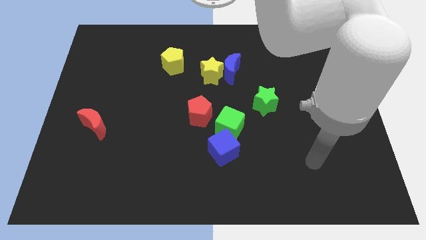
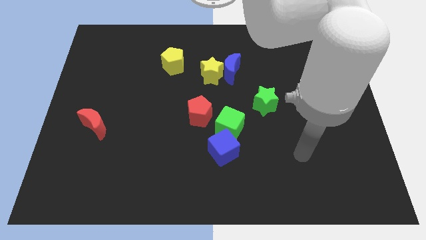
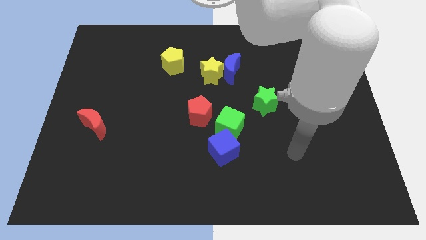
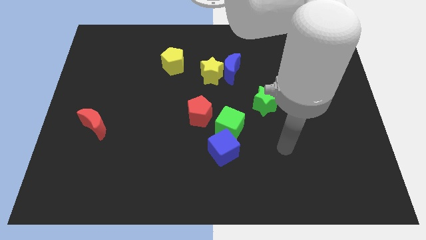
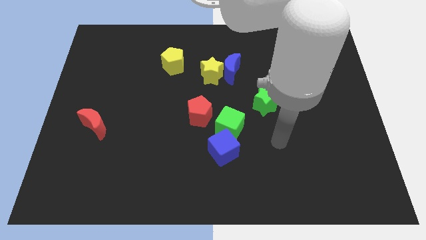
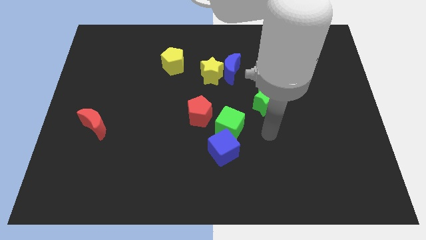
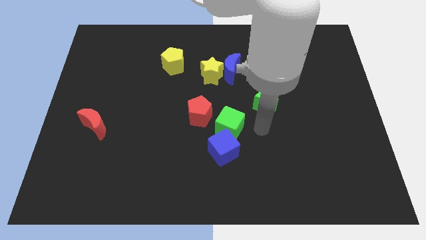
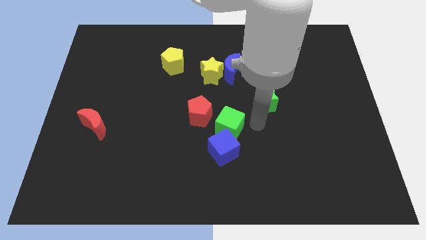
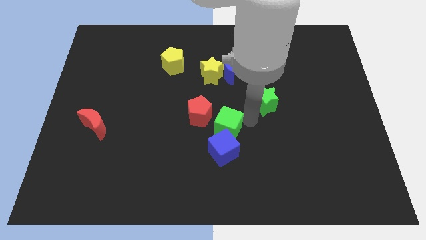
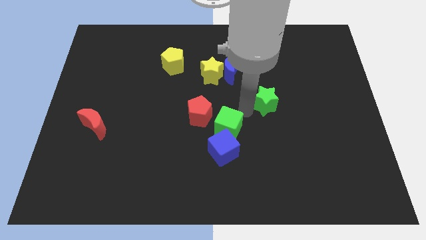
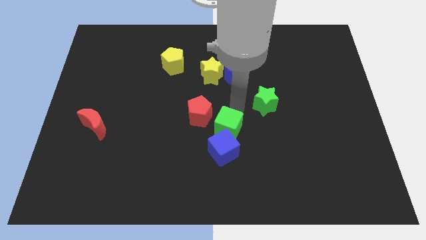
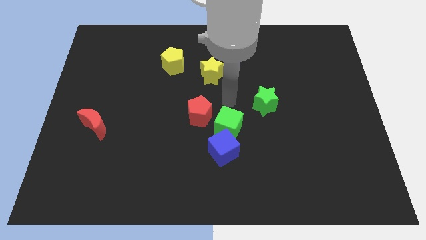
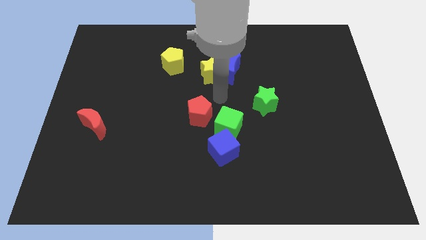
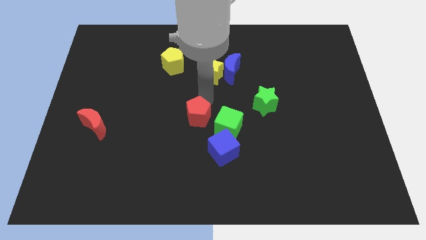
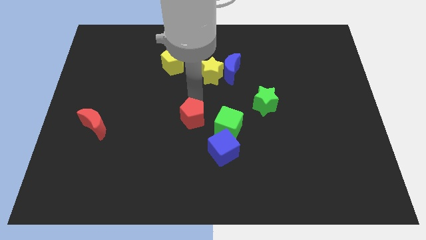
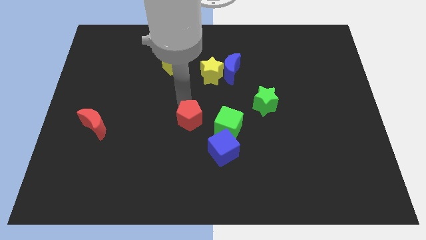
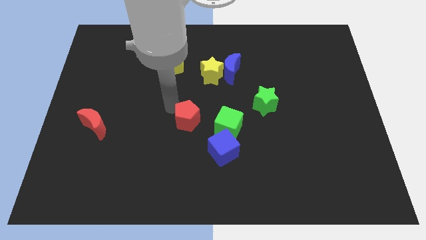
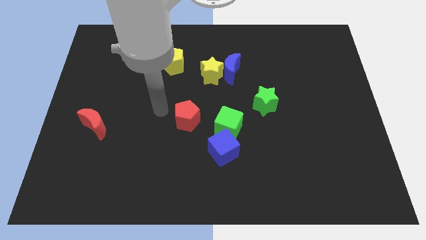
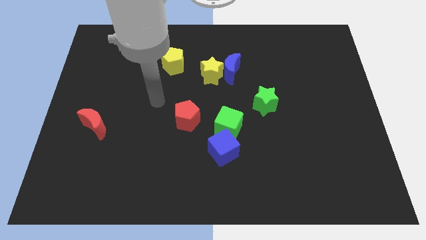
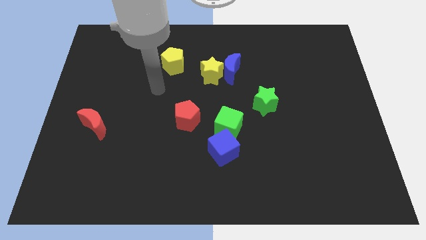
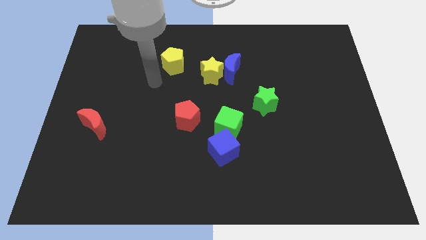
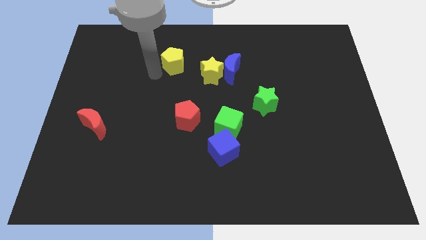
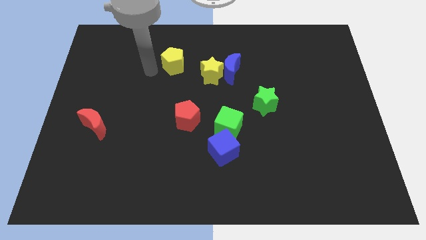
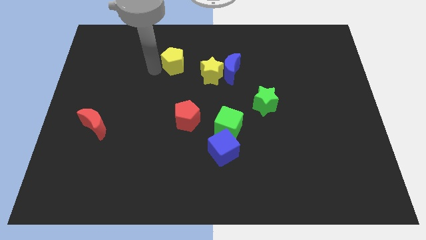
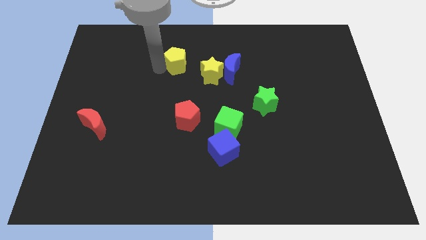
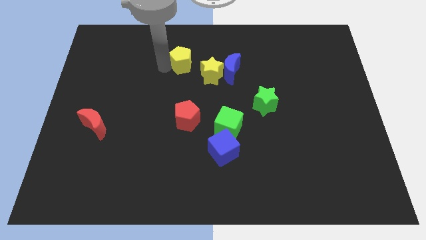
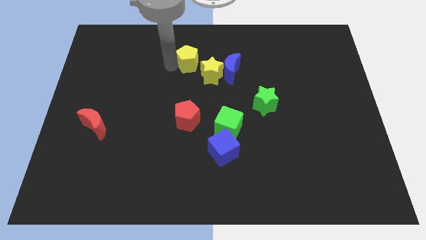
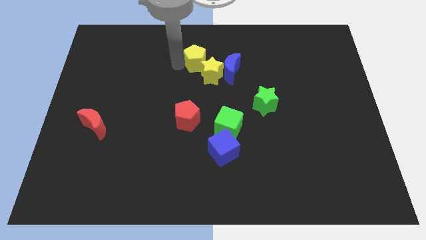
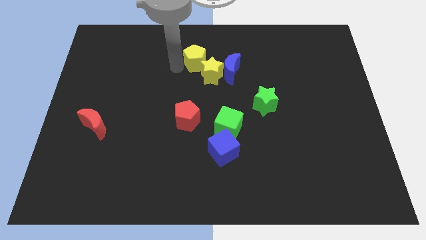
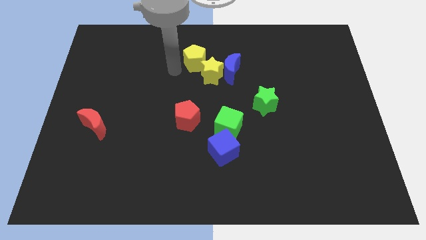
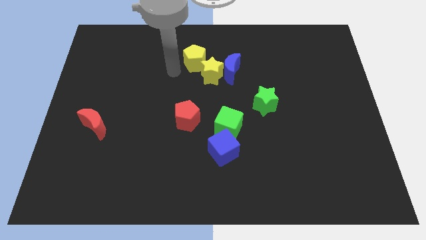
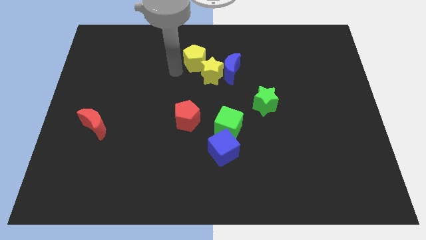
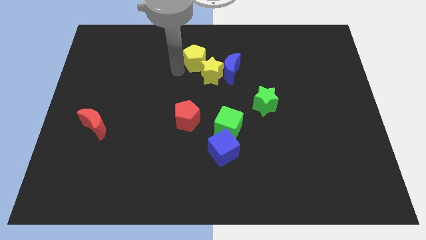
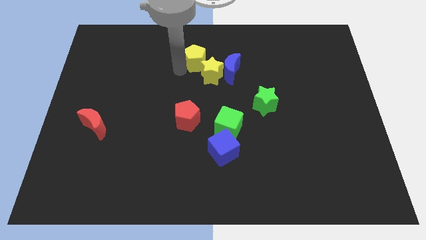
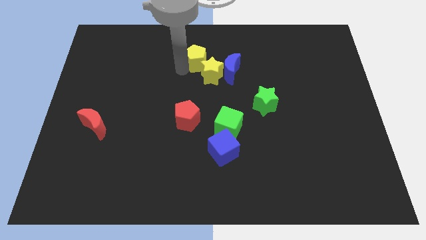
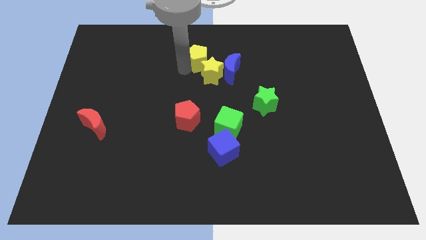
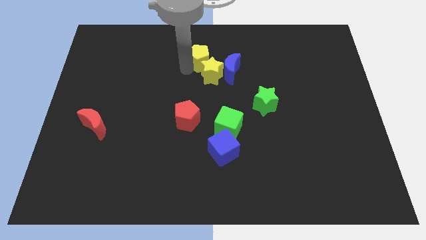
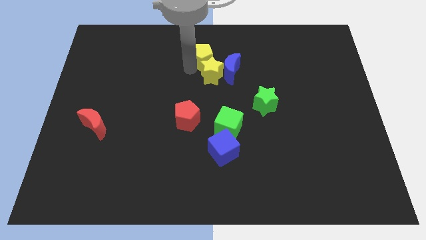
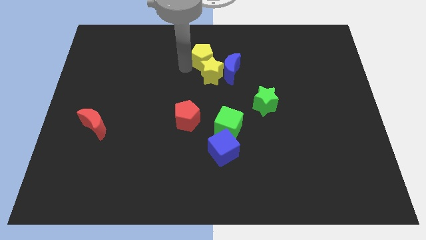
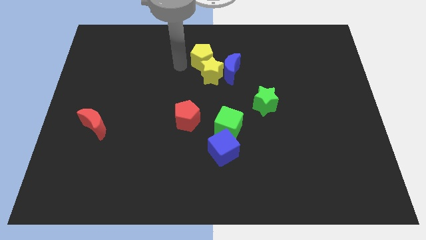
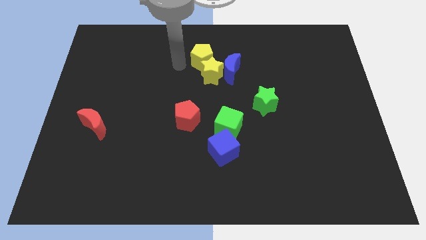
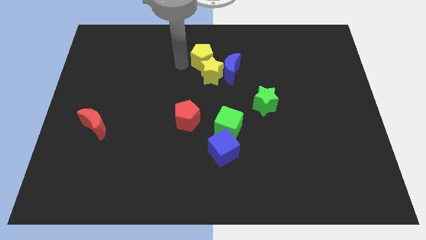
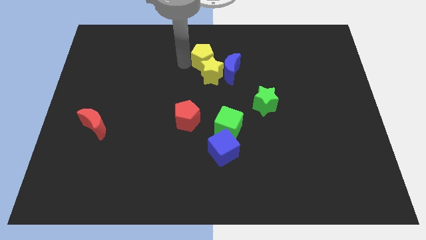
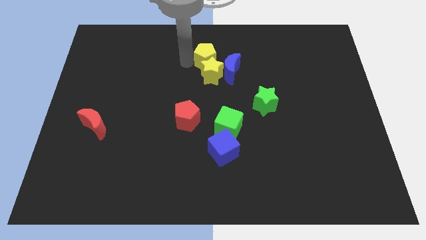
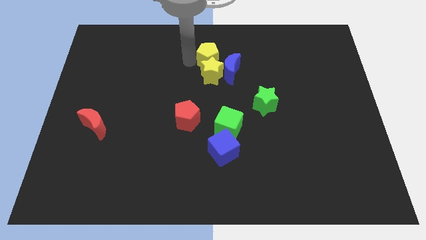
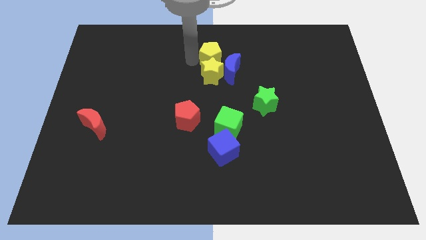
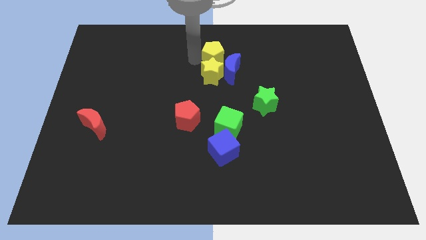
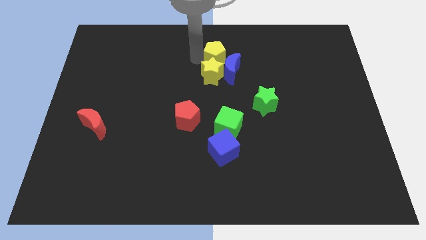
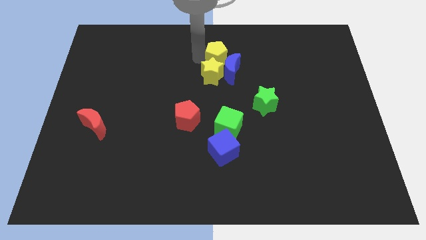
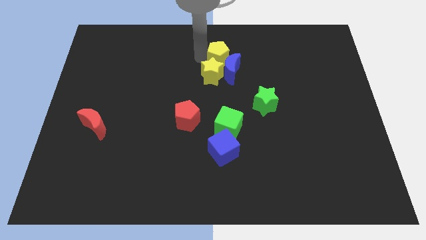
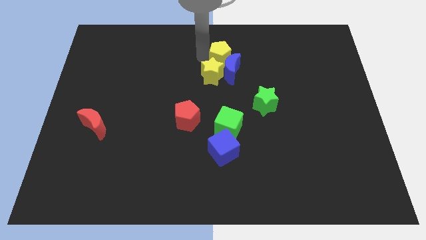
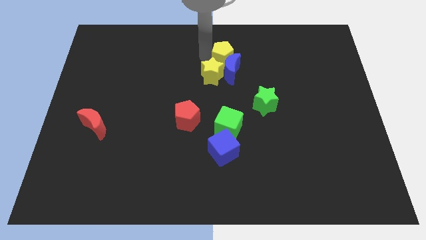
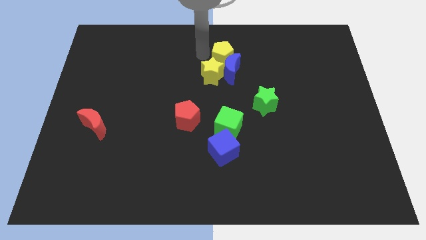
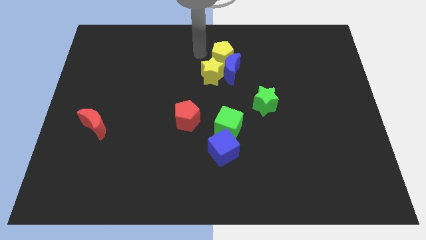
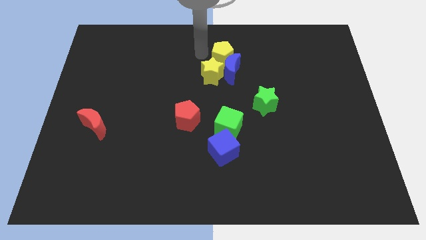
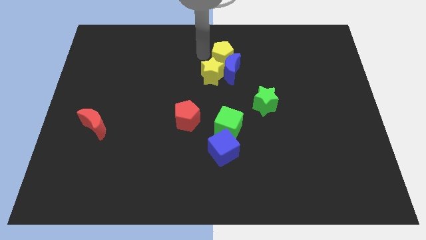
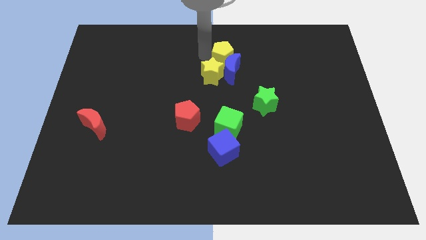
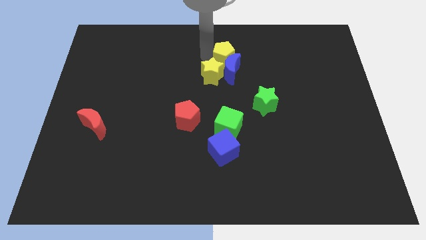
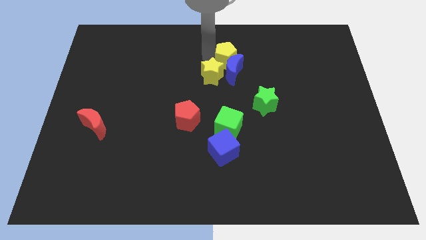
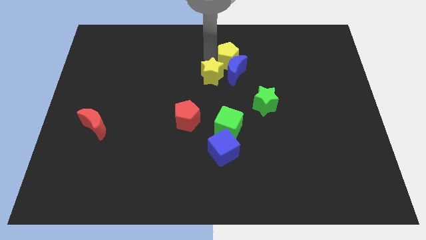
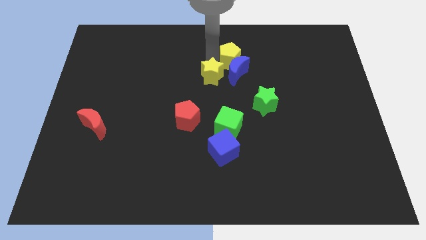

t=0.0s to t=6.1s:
slide the yellow pentagon just right of the yellow star

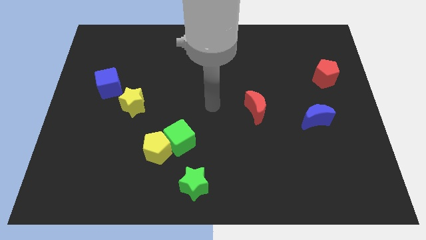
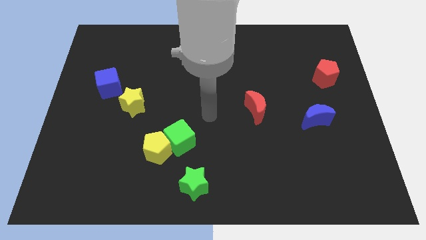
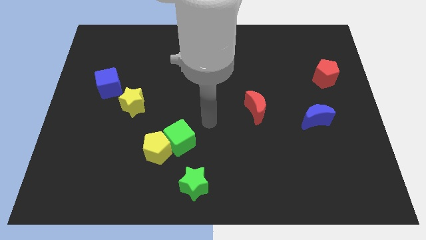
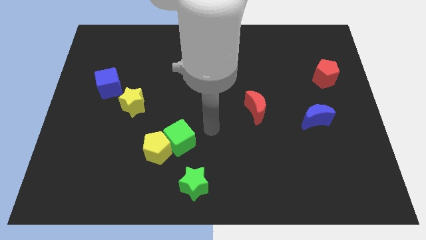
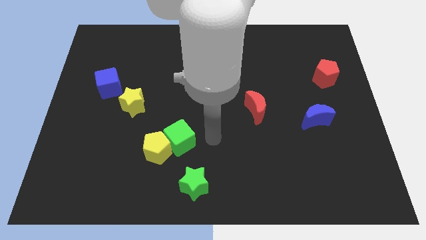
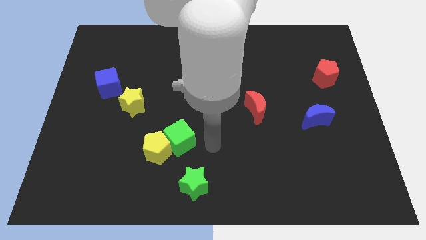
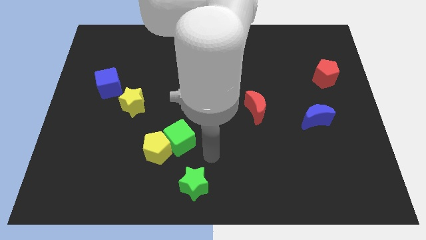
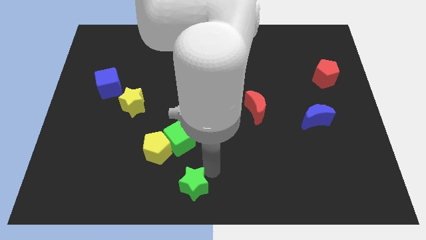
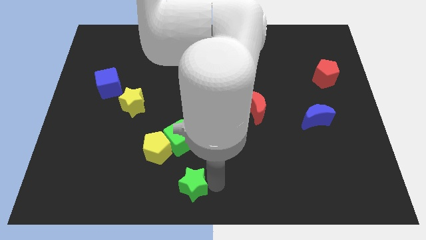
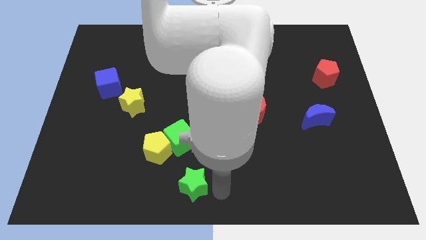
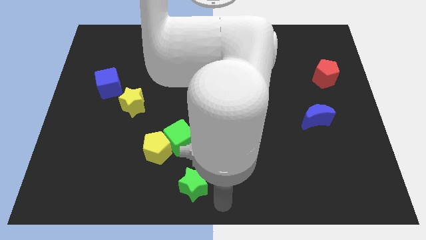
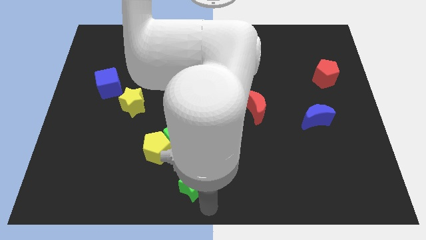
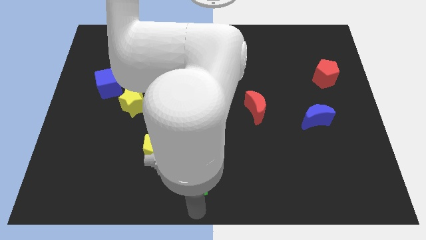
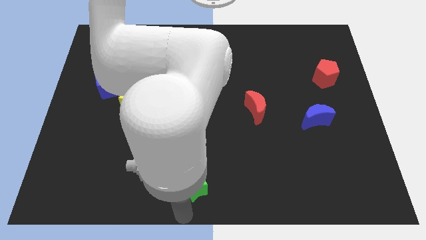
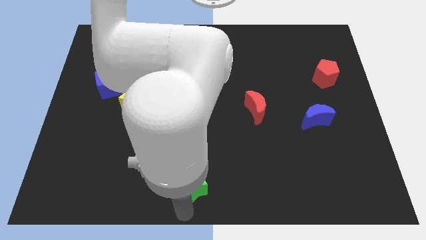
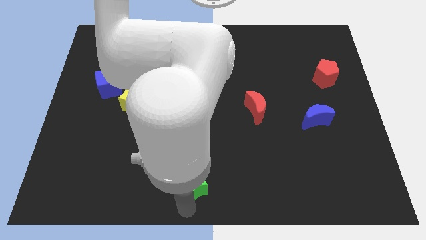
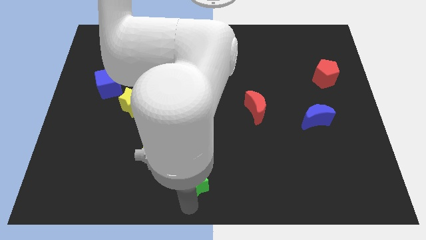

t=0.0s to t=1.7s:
move the green star to the bottom right side of the green cube
